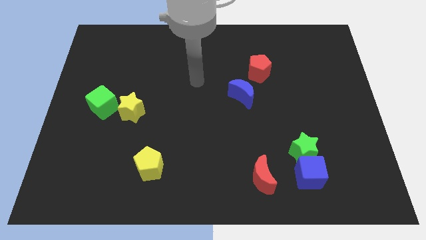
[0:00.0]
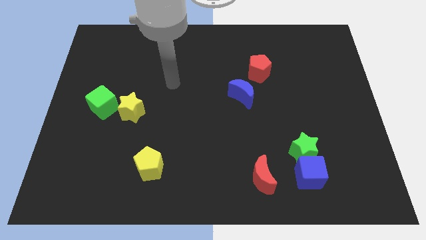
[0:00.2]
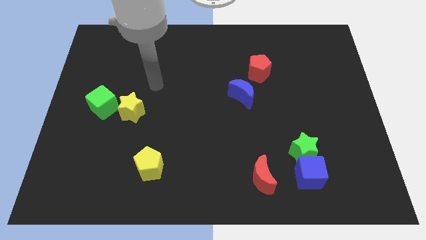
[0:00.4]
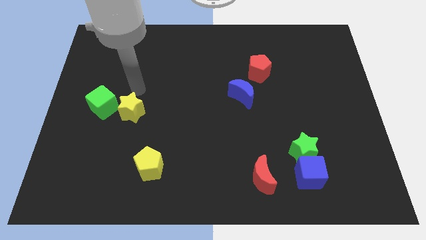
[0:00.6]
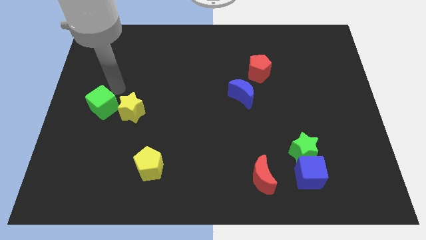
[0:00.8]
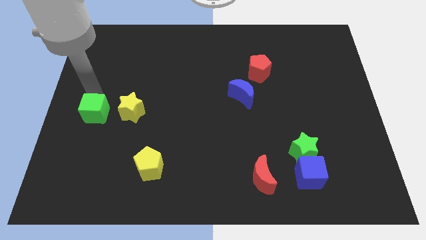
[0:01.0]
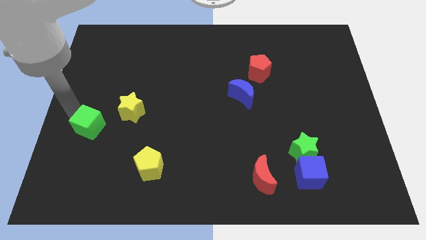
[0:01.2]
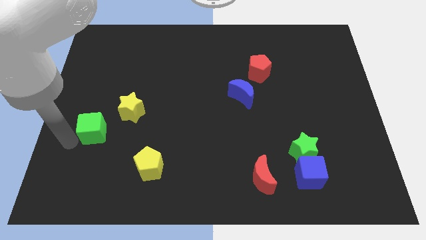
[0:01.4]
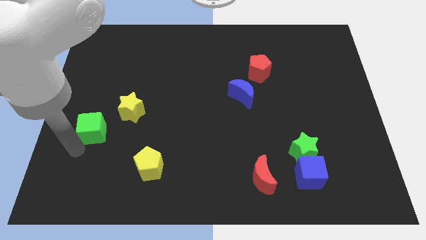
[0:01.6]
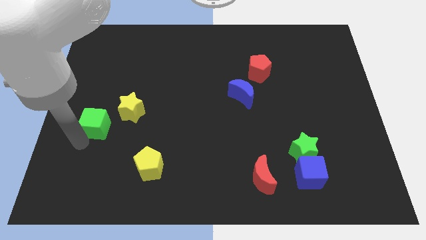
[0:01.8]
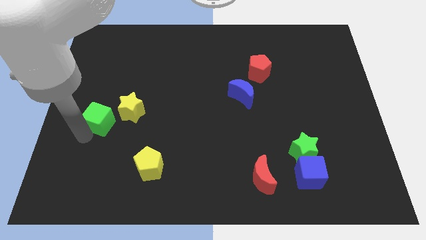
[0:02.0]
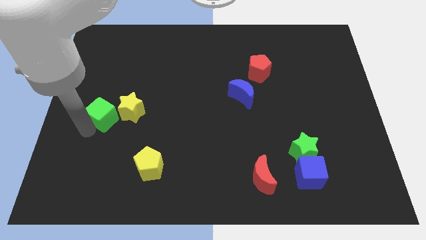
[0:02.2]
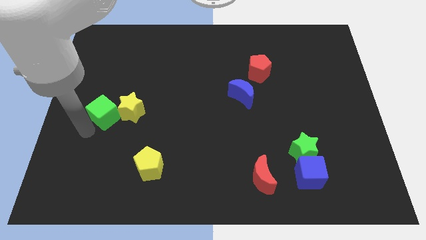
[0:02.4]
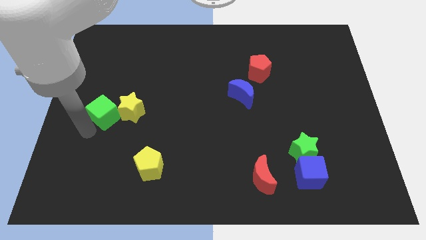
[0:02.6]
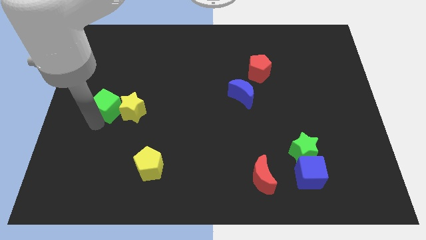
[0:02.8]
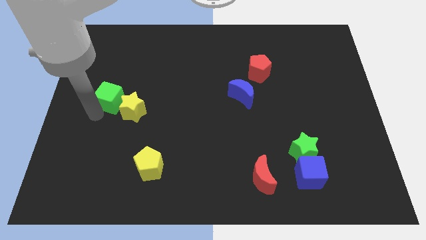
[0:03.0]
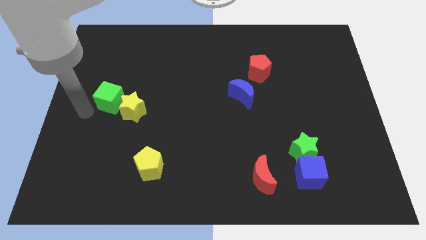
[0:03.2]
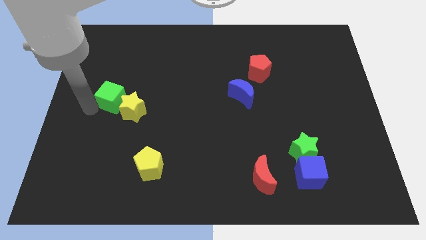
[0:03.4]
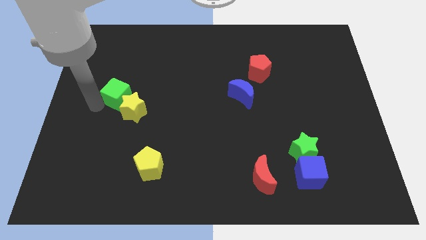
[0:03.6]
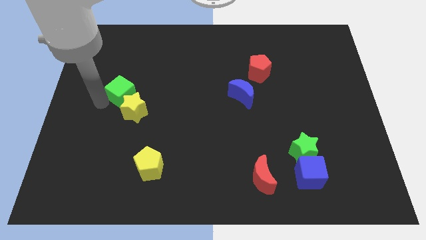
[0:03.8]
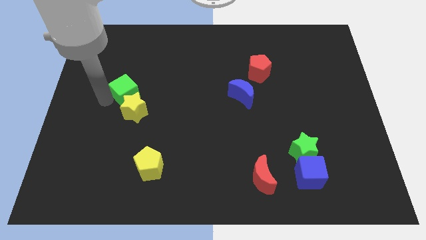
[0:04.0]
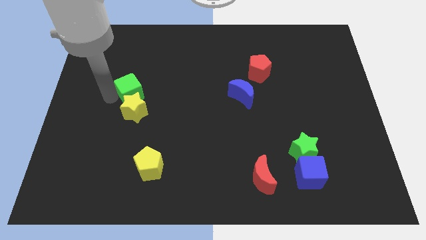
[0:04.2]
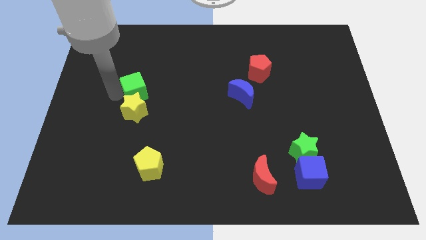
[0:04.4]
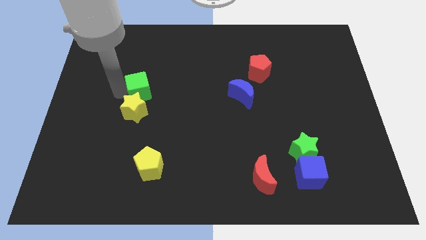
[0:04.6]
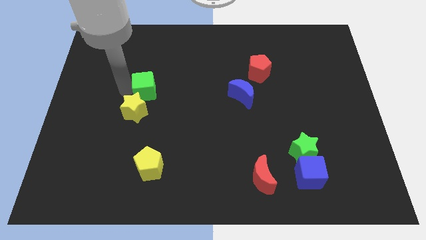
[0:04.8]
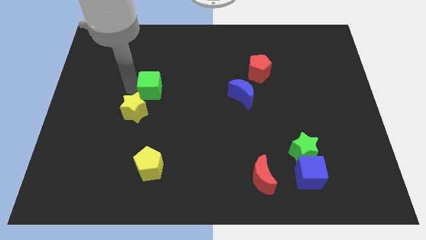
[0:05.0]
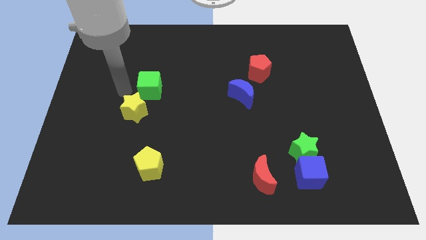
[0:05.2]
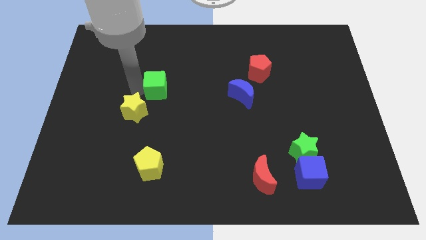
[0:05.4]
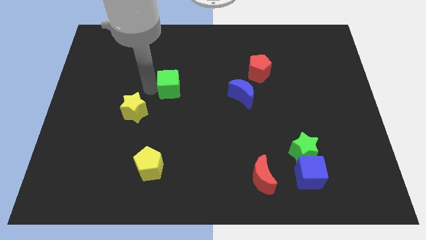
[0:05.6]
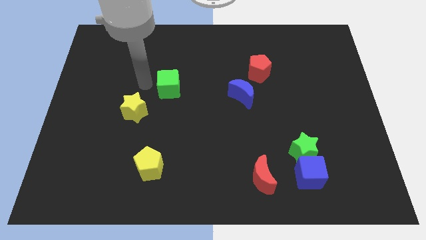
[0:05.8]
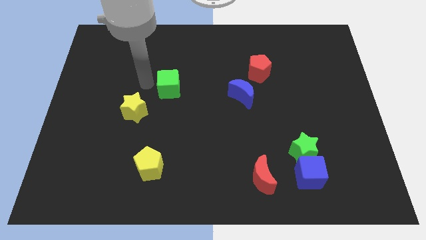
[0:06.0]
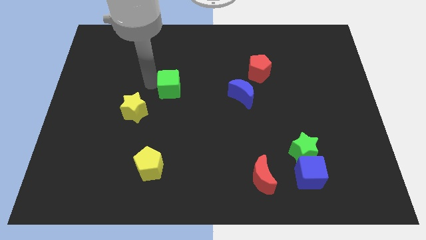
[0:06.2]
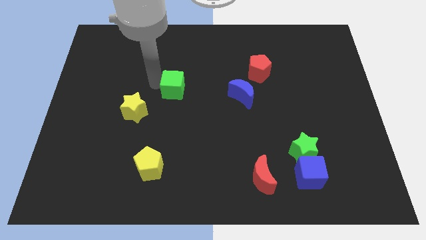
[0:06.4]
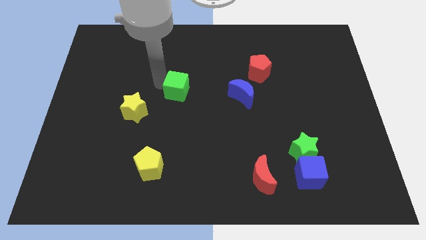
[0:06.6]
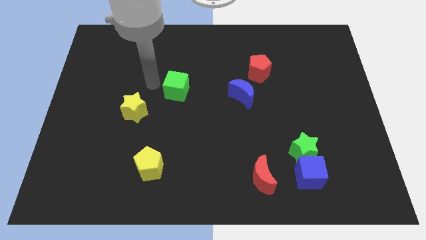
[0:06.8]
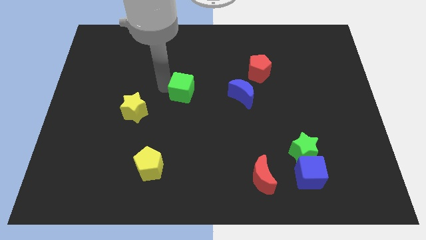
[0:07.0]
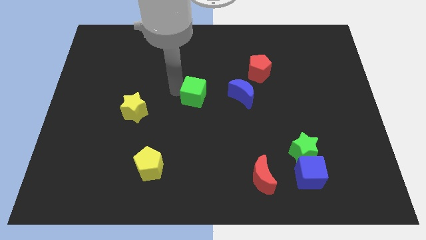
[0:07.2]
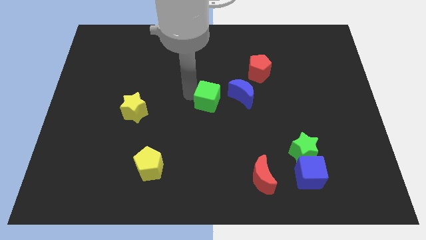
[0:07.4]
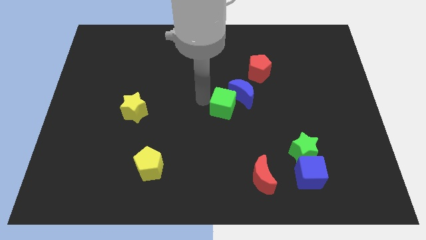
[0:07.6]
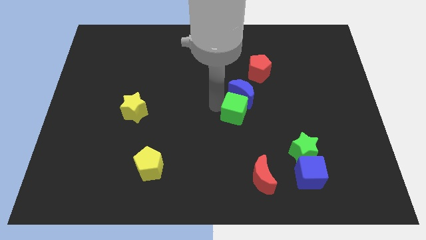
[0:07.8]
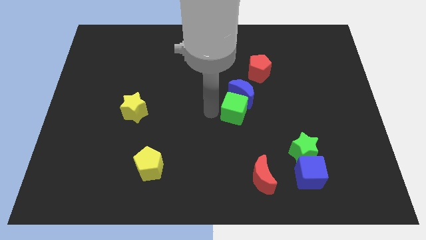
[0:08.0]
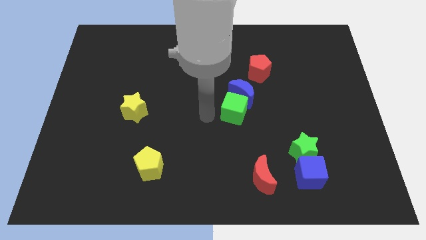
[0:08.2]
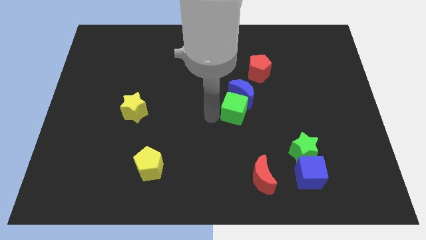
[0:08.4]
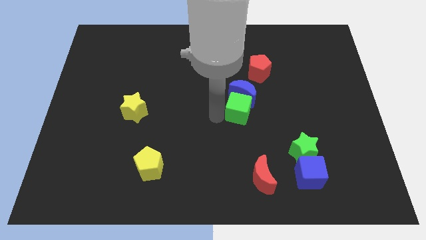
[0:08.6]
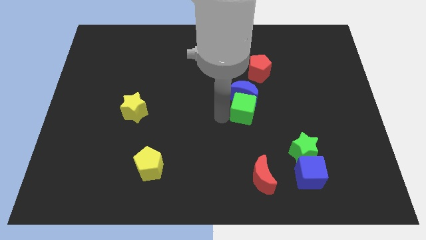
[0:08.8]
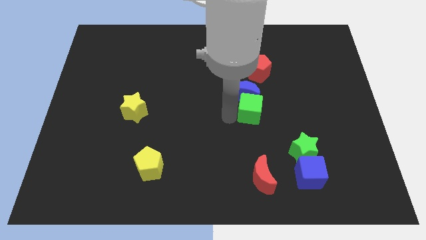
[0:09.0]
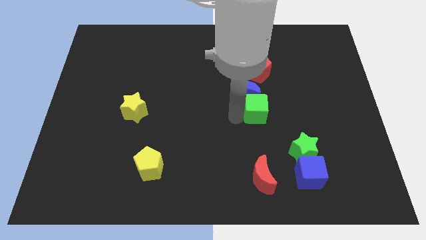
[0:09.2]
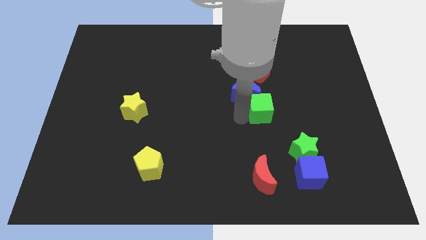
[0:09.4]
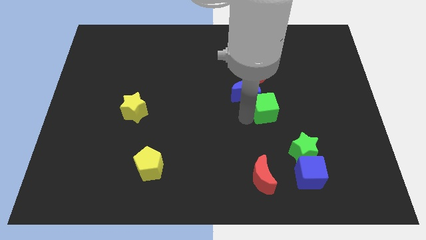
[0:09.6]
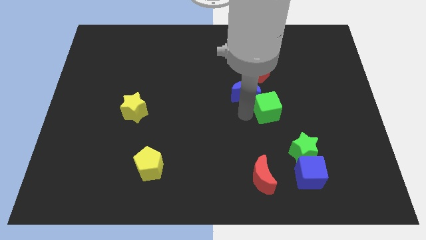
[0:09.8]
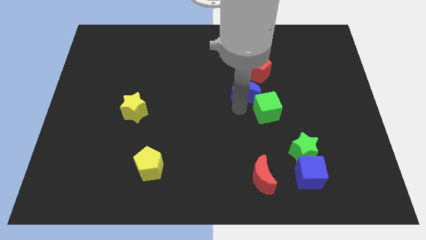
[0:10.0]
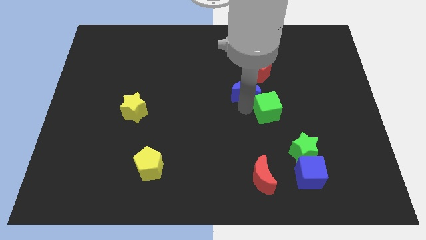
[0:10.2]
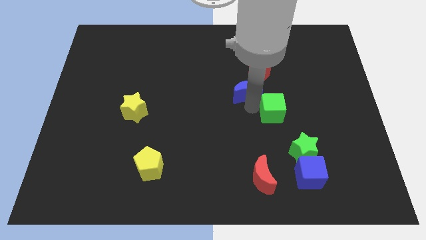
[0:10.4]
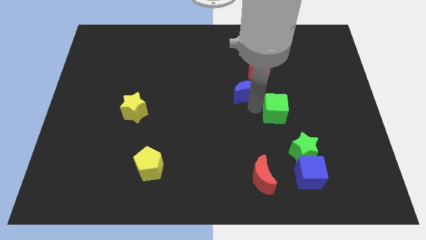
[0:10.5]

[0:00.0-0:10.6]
push the green cube above the green star

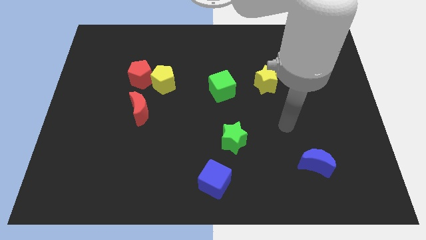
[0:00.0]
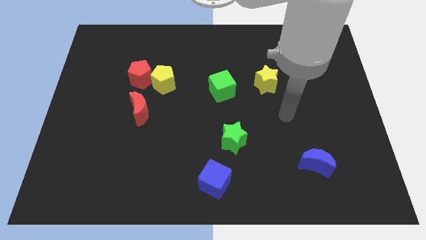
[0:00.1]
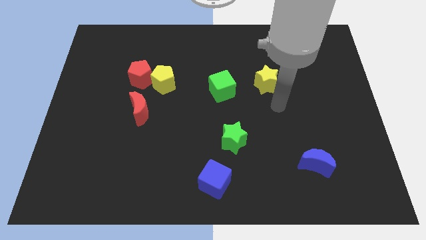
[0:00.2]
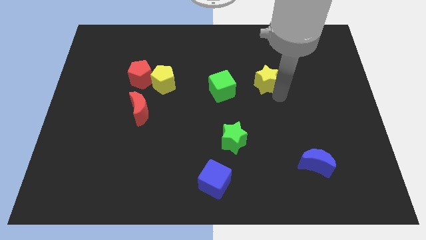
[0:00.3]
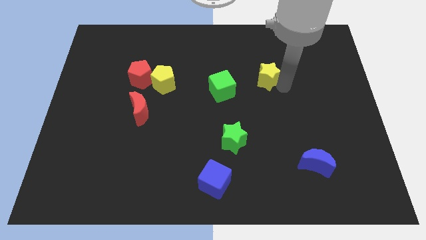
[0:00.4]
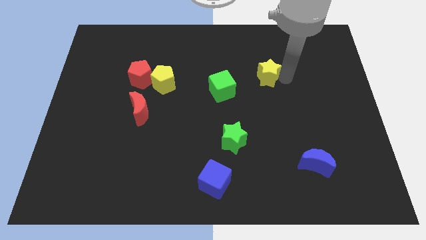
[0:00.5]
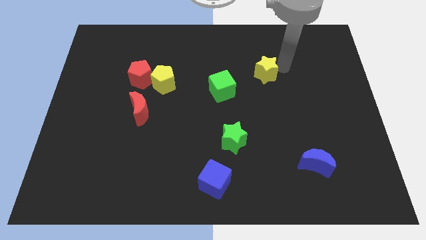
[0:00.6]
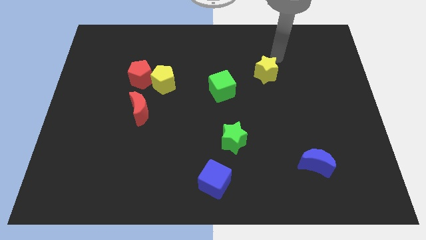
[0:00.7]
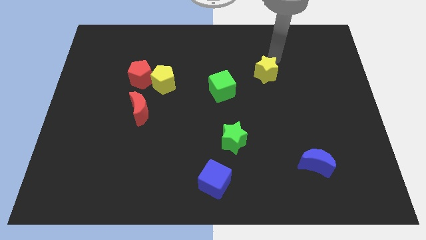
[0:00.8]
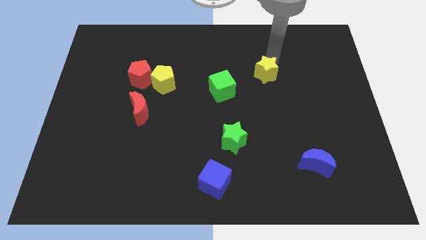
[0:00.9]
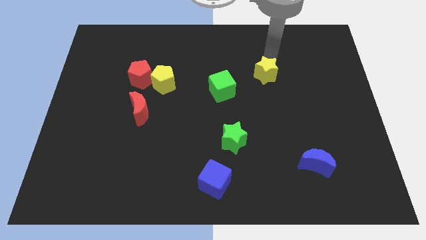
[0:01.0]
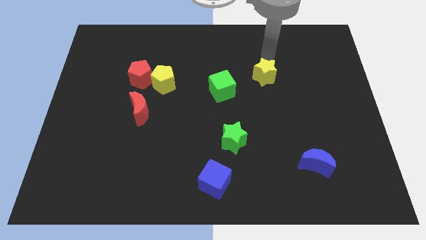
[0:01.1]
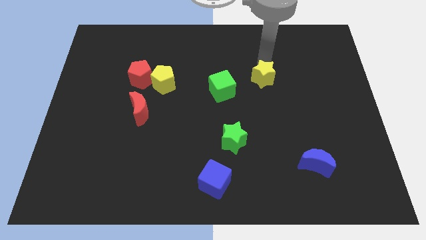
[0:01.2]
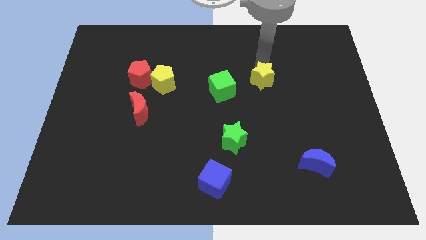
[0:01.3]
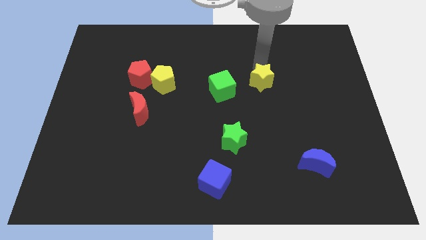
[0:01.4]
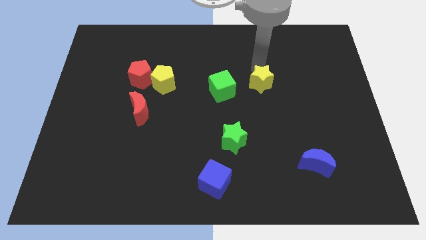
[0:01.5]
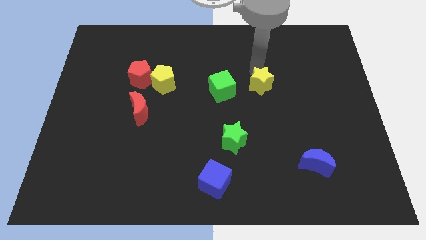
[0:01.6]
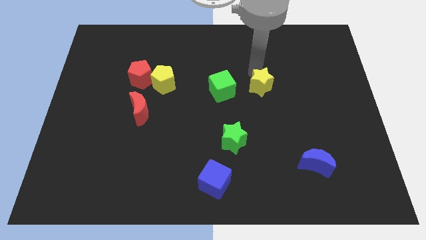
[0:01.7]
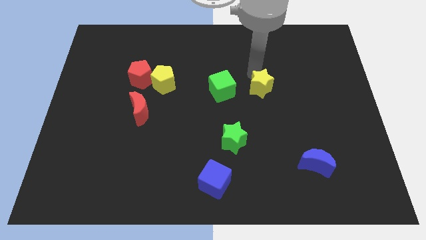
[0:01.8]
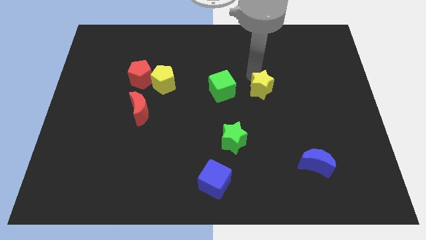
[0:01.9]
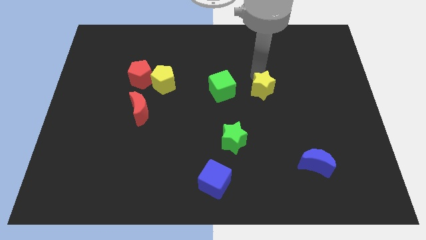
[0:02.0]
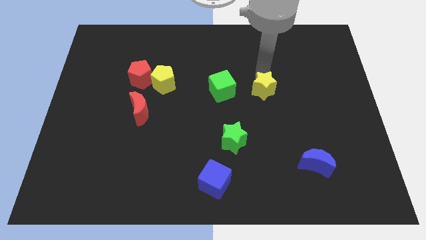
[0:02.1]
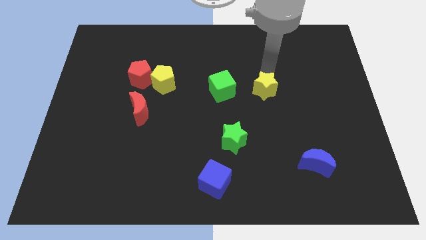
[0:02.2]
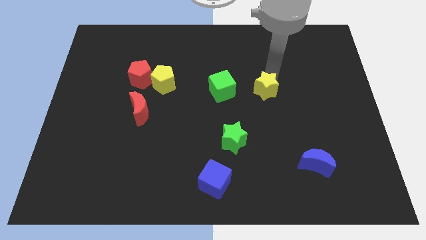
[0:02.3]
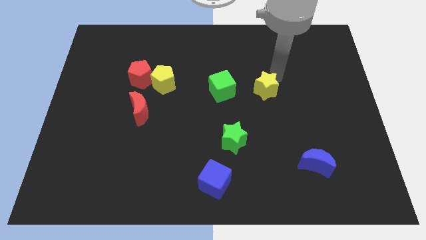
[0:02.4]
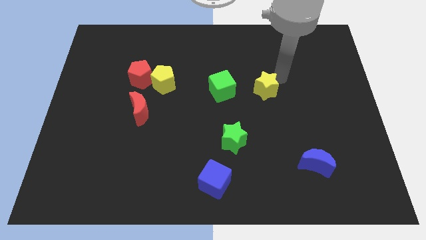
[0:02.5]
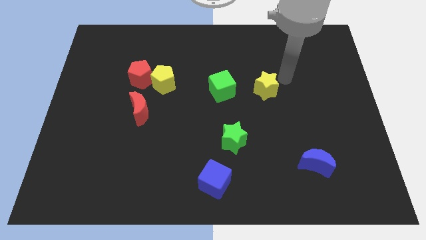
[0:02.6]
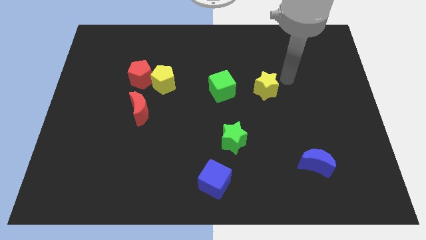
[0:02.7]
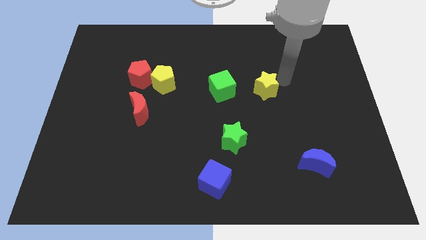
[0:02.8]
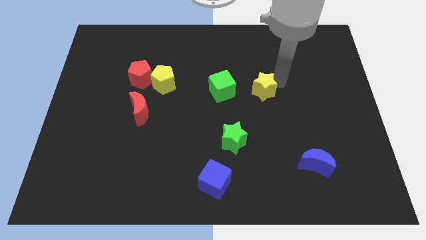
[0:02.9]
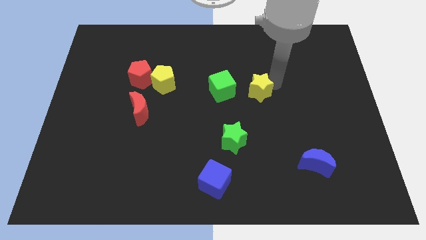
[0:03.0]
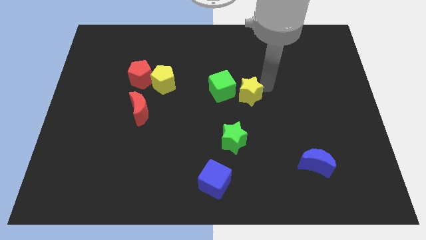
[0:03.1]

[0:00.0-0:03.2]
slide the yellow star to the top side of the green star
